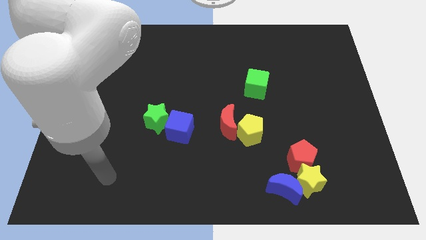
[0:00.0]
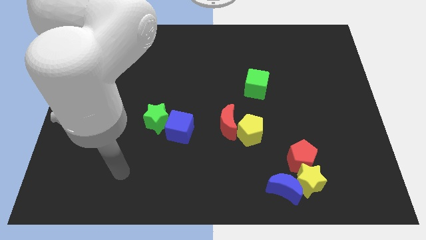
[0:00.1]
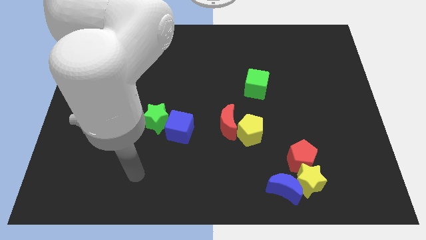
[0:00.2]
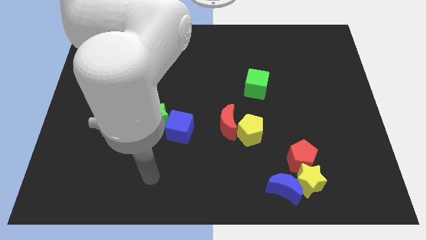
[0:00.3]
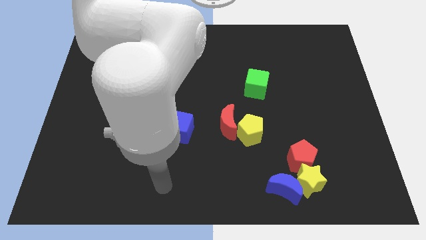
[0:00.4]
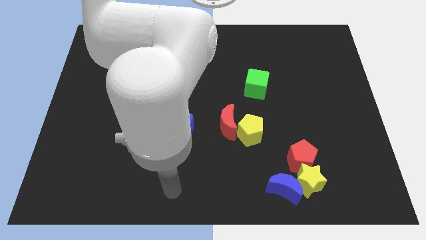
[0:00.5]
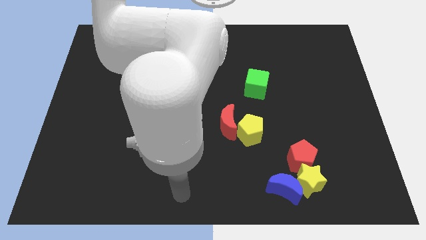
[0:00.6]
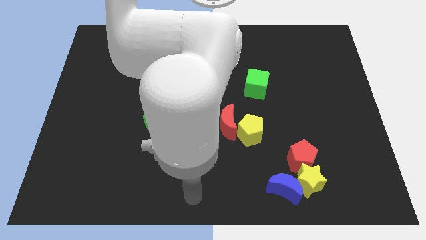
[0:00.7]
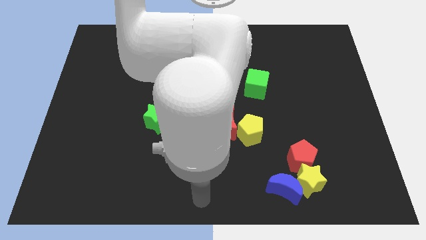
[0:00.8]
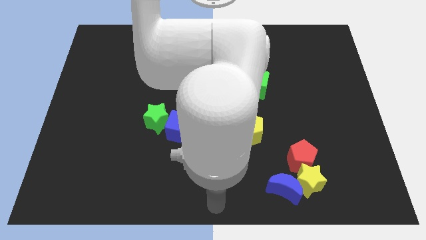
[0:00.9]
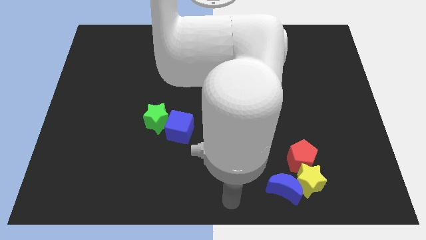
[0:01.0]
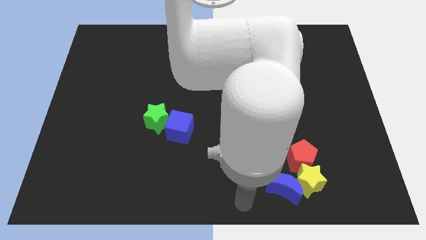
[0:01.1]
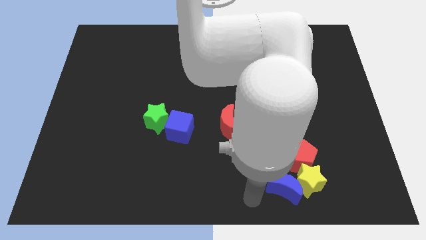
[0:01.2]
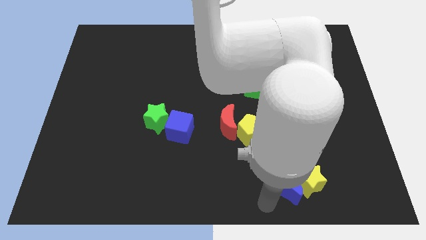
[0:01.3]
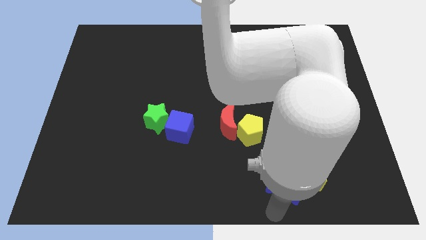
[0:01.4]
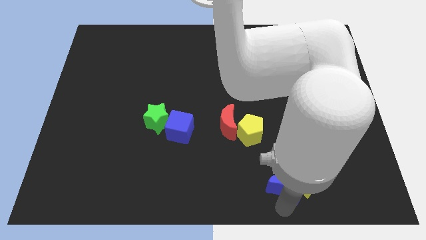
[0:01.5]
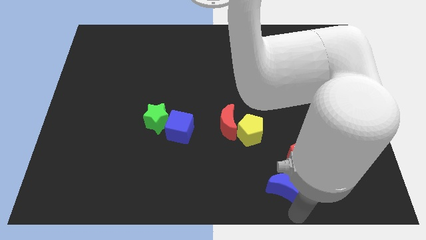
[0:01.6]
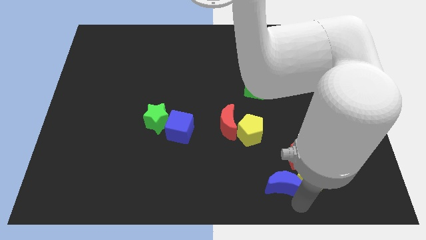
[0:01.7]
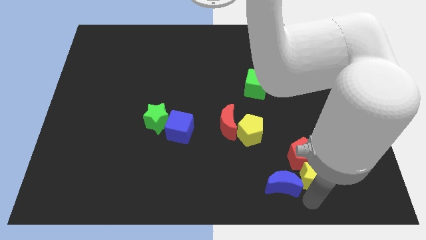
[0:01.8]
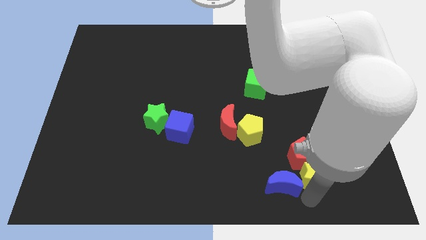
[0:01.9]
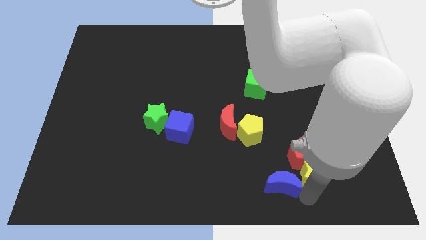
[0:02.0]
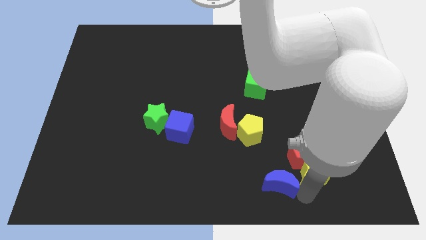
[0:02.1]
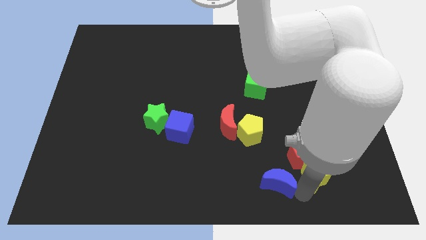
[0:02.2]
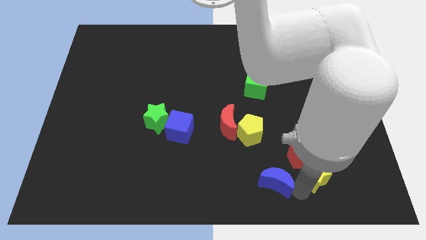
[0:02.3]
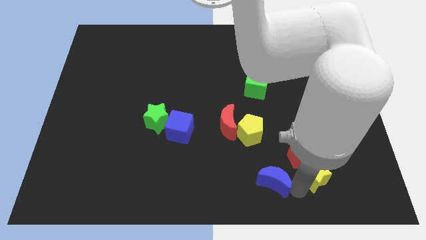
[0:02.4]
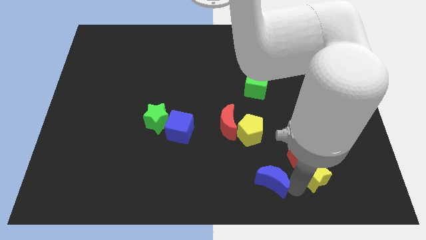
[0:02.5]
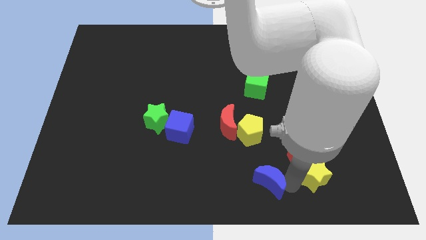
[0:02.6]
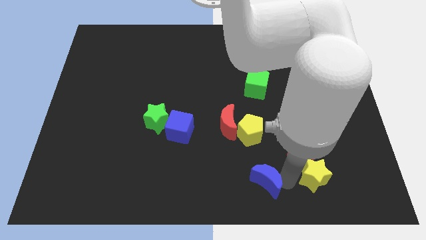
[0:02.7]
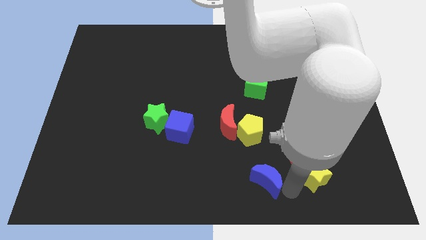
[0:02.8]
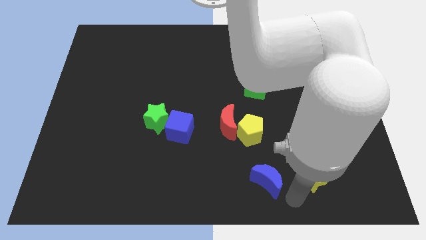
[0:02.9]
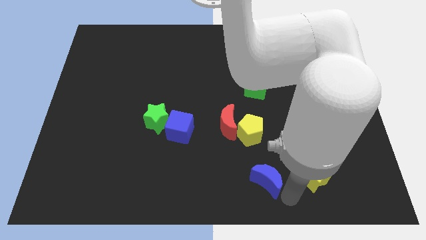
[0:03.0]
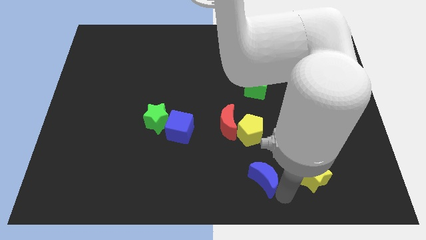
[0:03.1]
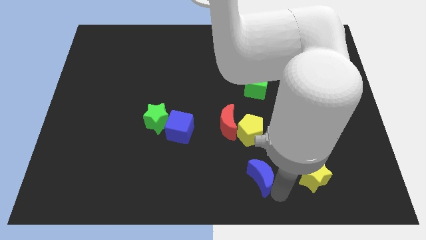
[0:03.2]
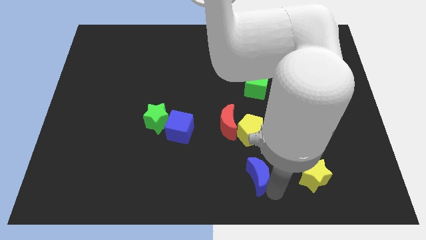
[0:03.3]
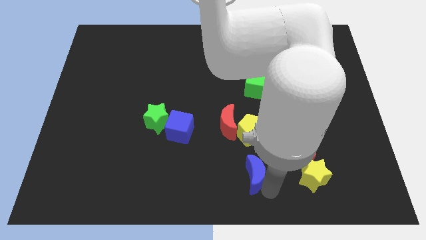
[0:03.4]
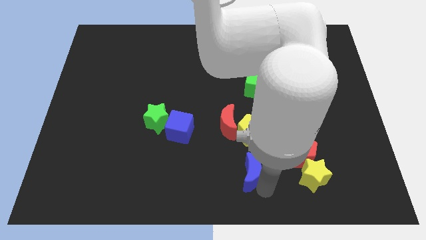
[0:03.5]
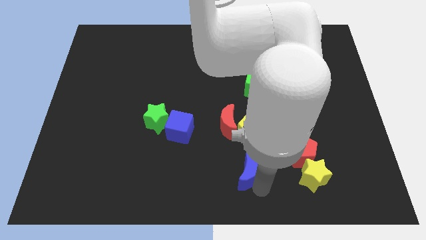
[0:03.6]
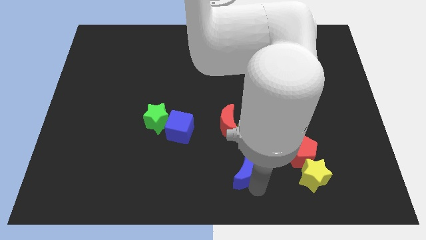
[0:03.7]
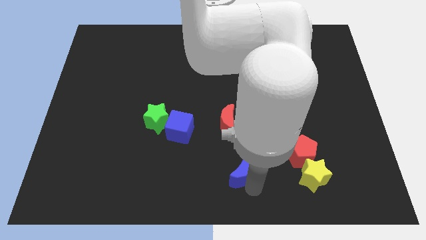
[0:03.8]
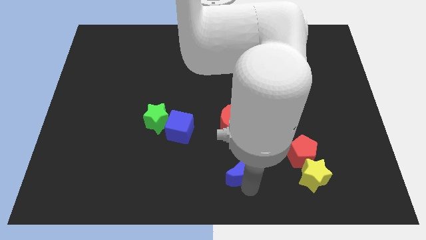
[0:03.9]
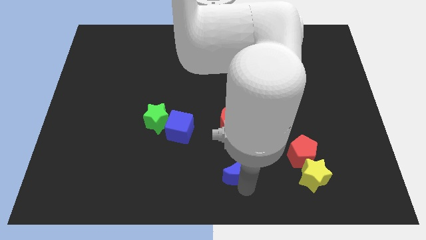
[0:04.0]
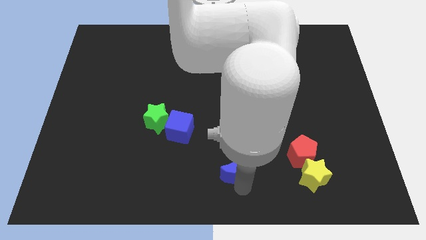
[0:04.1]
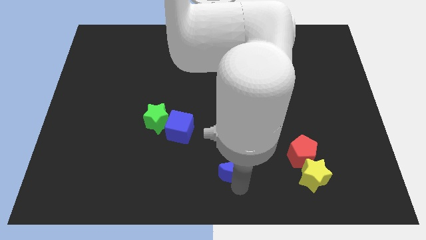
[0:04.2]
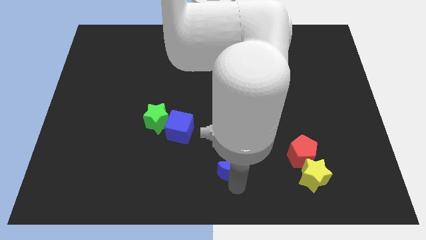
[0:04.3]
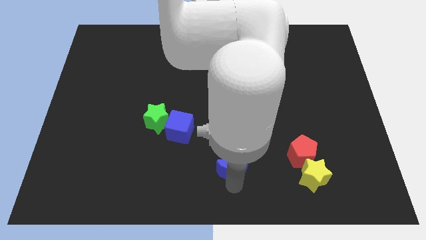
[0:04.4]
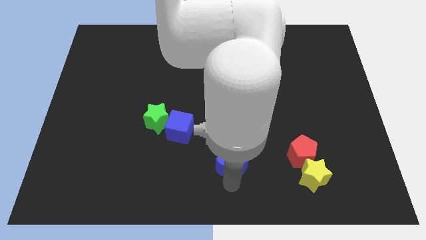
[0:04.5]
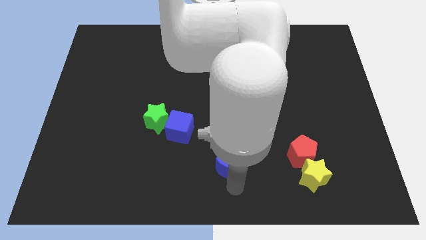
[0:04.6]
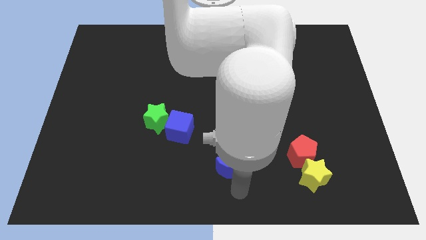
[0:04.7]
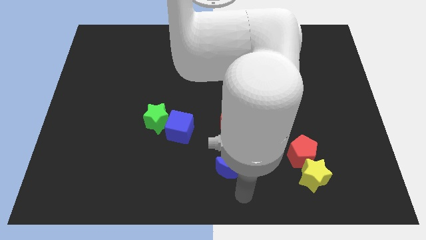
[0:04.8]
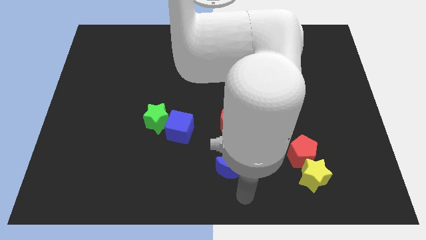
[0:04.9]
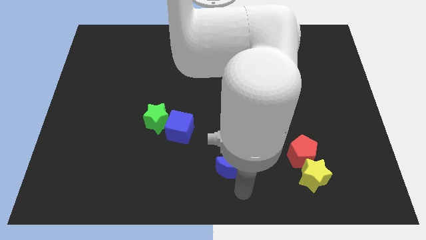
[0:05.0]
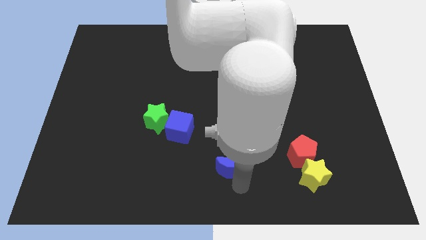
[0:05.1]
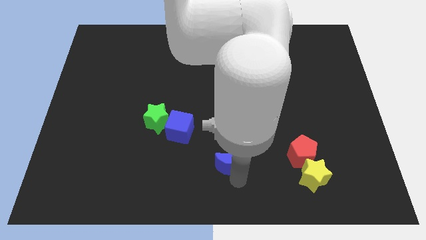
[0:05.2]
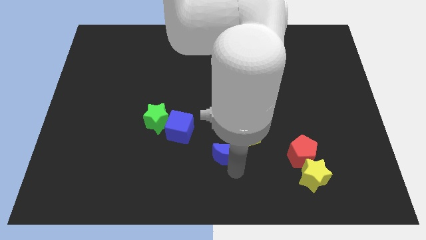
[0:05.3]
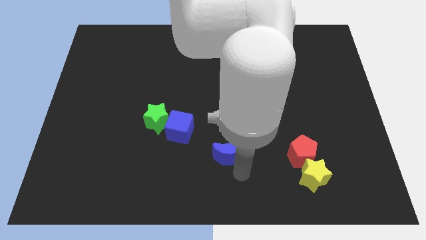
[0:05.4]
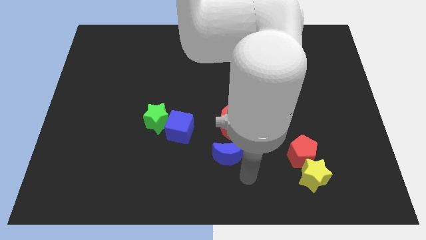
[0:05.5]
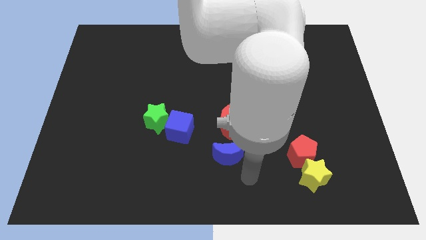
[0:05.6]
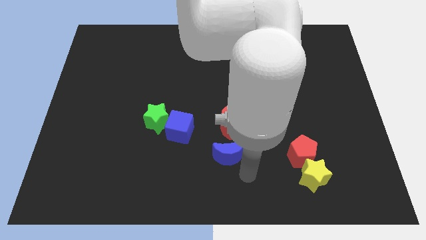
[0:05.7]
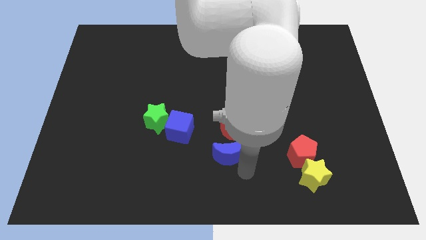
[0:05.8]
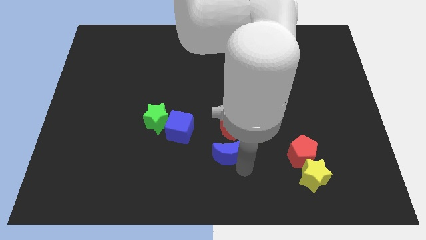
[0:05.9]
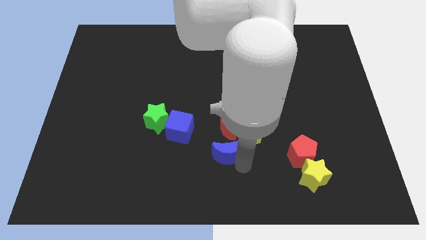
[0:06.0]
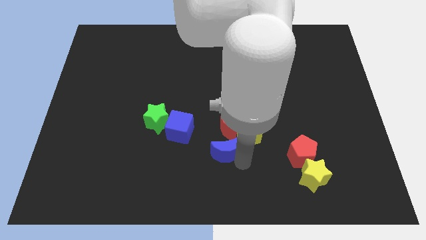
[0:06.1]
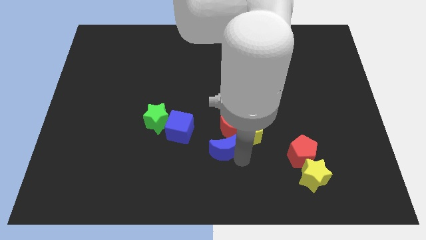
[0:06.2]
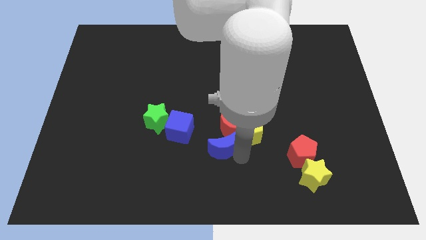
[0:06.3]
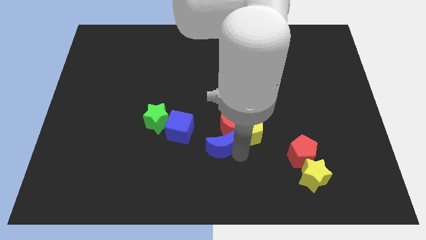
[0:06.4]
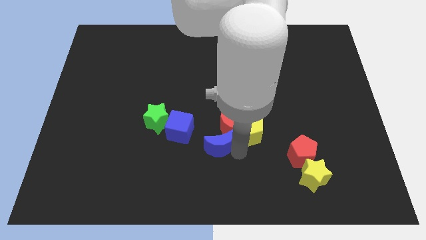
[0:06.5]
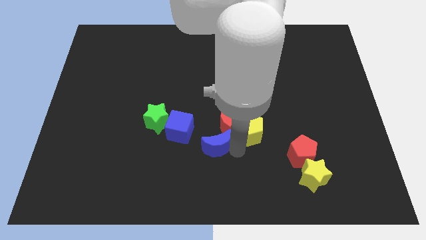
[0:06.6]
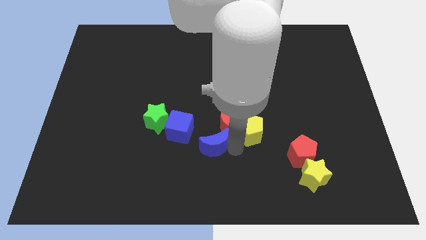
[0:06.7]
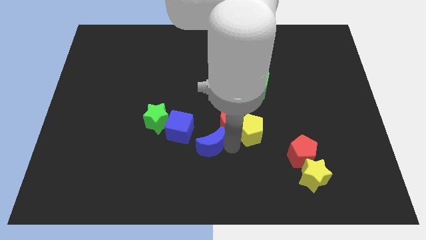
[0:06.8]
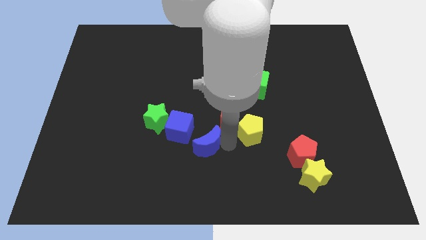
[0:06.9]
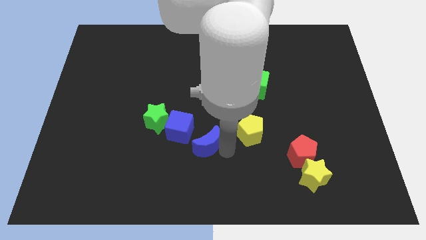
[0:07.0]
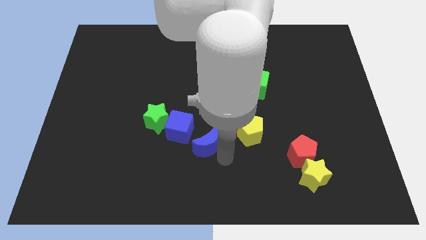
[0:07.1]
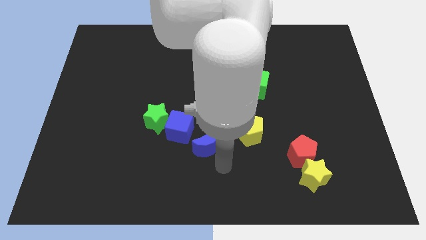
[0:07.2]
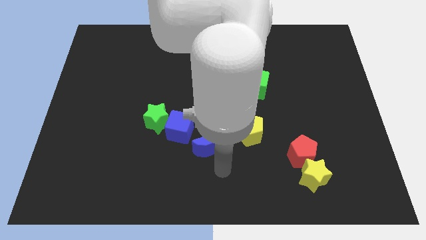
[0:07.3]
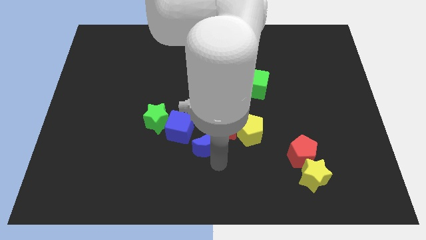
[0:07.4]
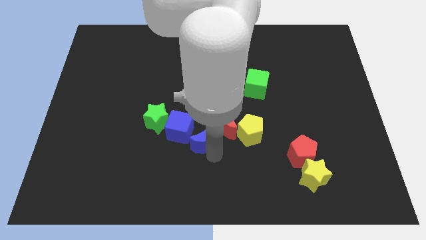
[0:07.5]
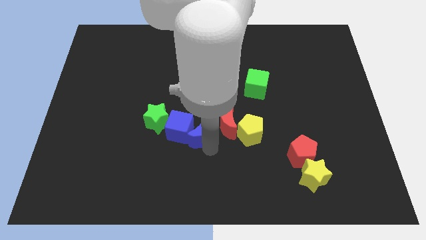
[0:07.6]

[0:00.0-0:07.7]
move the blue moon up and then left

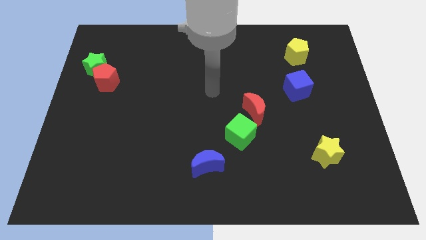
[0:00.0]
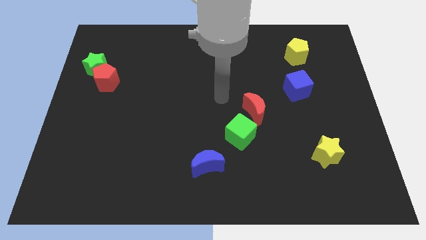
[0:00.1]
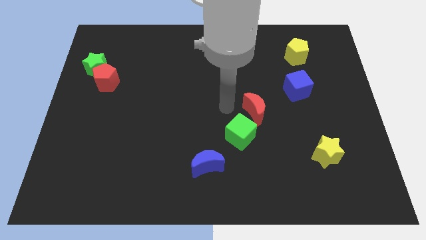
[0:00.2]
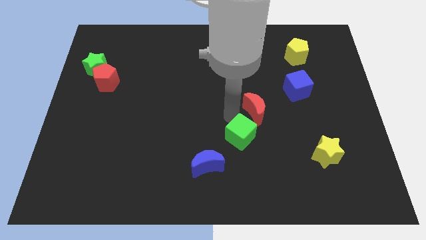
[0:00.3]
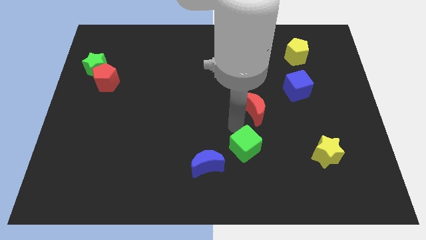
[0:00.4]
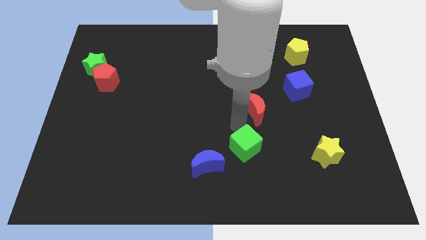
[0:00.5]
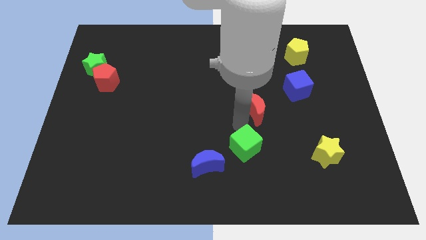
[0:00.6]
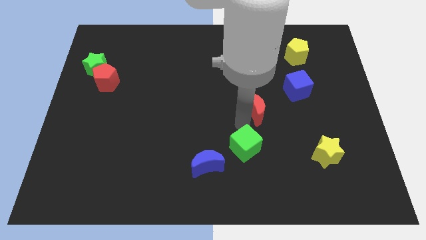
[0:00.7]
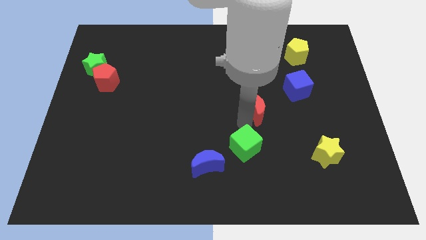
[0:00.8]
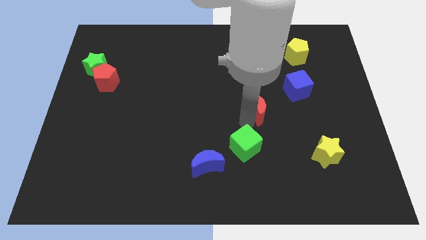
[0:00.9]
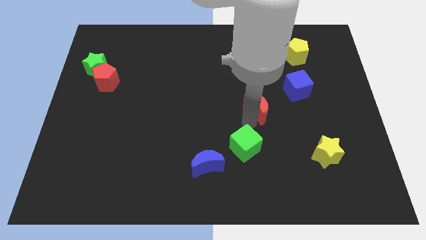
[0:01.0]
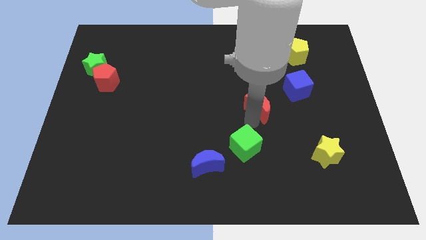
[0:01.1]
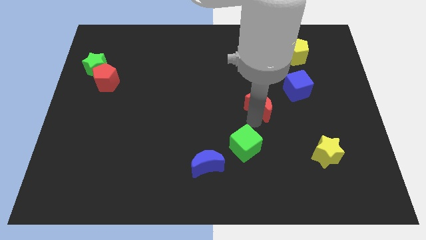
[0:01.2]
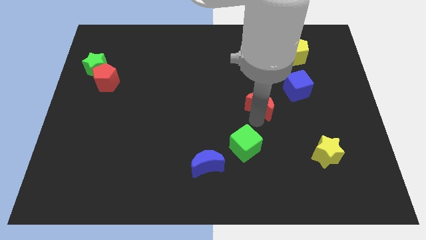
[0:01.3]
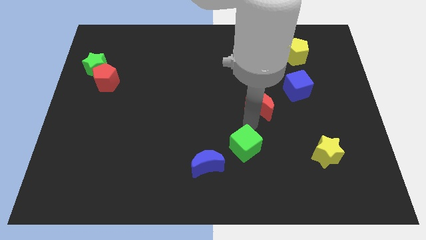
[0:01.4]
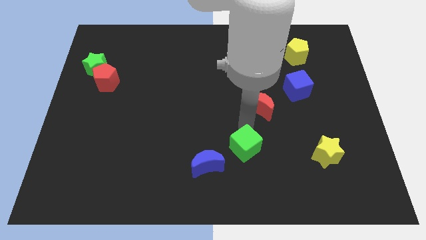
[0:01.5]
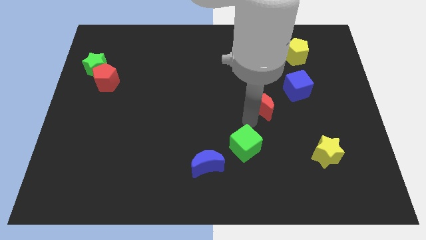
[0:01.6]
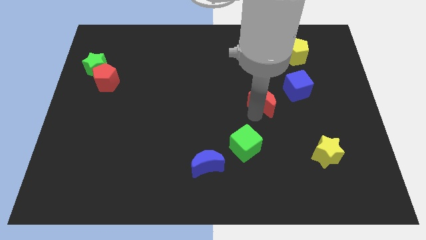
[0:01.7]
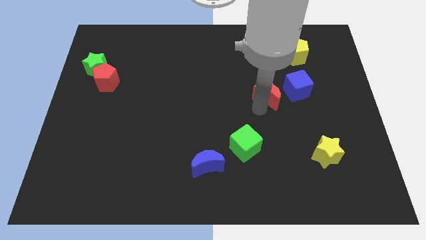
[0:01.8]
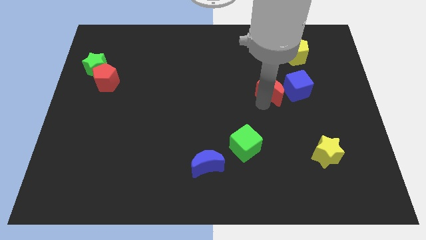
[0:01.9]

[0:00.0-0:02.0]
slide the red moon a little upwards and to the right
